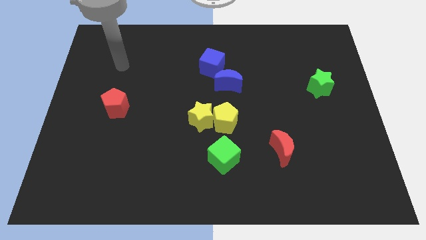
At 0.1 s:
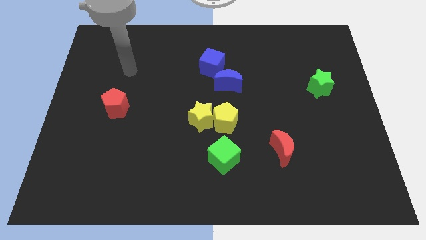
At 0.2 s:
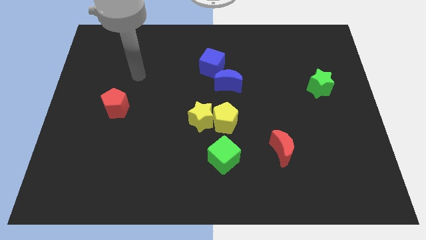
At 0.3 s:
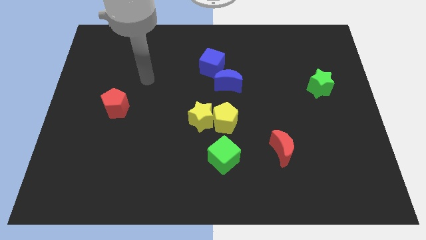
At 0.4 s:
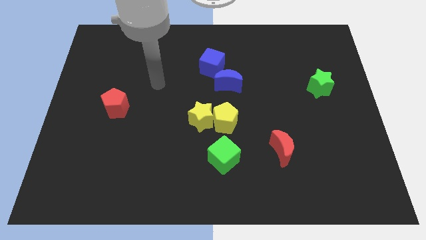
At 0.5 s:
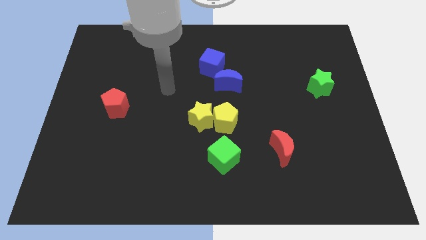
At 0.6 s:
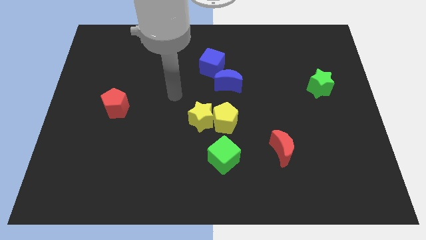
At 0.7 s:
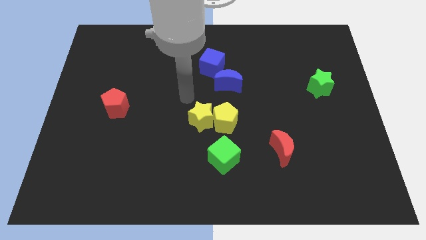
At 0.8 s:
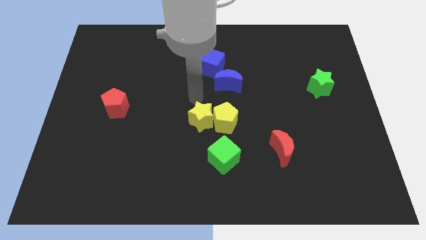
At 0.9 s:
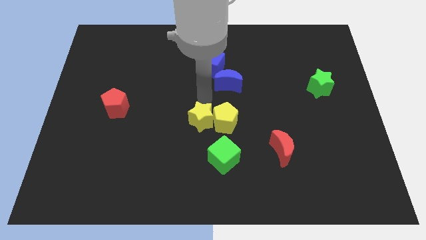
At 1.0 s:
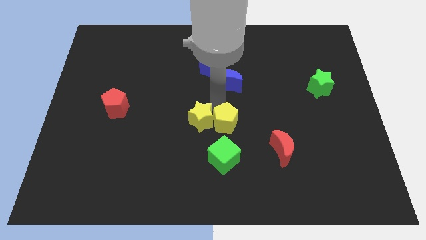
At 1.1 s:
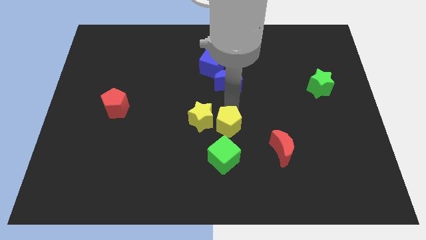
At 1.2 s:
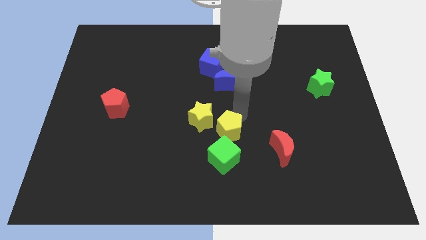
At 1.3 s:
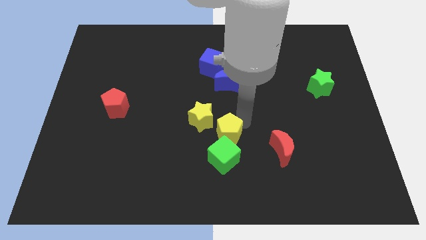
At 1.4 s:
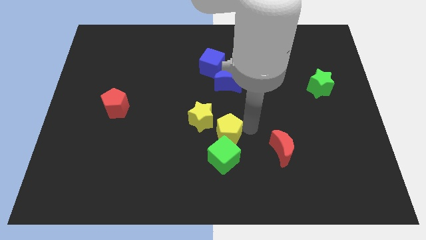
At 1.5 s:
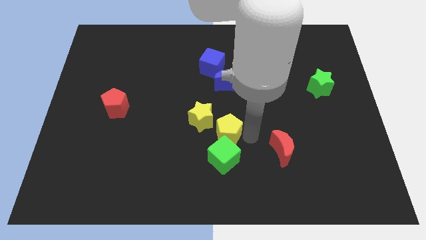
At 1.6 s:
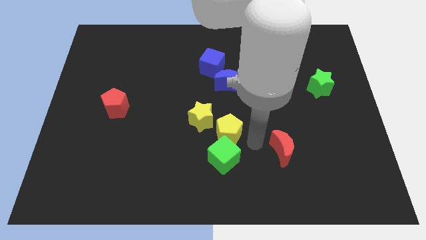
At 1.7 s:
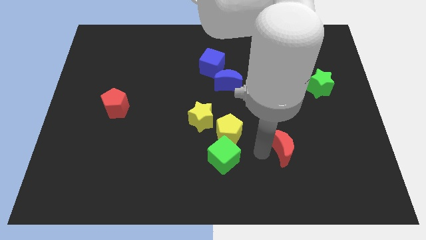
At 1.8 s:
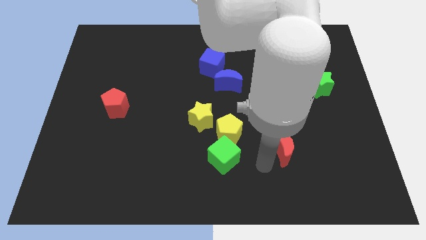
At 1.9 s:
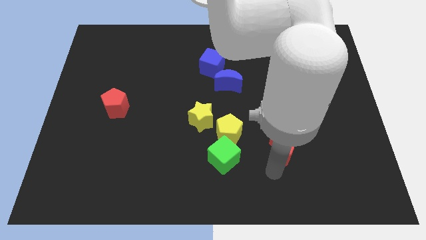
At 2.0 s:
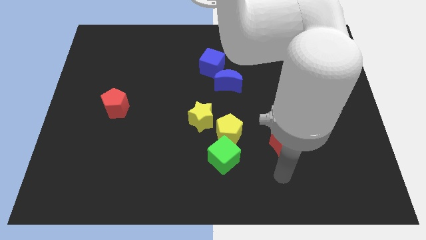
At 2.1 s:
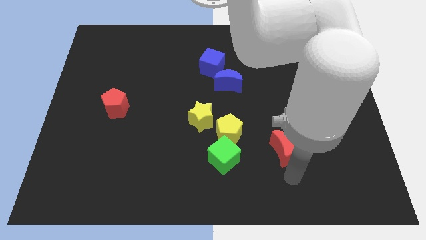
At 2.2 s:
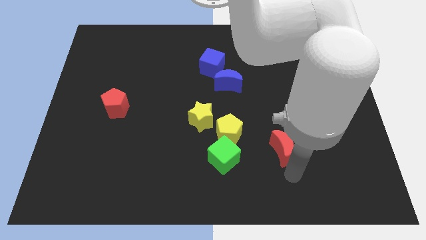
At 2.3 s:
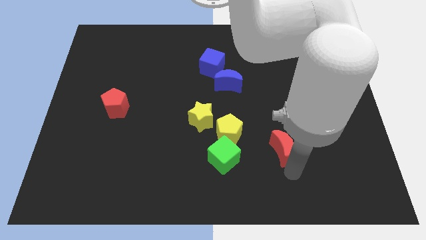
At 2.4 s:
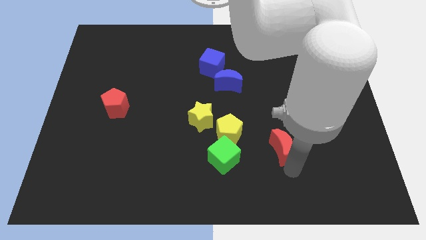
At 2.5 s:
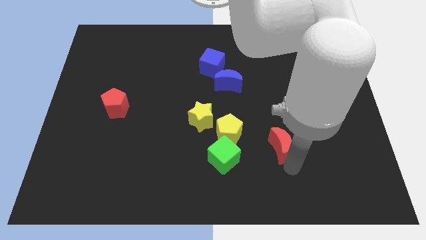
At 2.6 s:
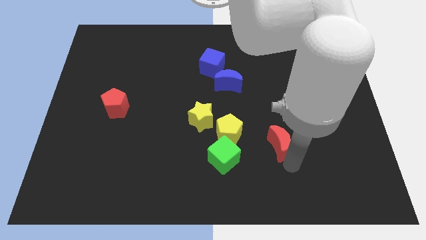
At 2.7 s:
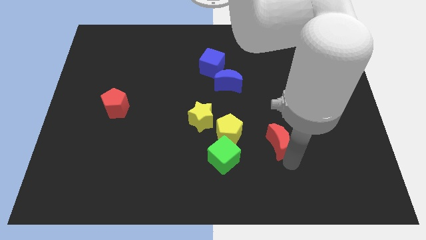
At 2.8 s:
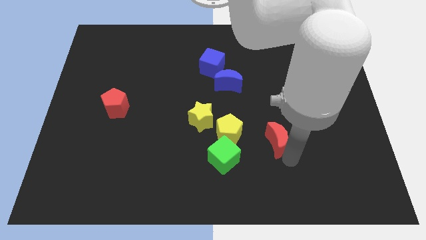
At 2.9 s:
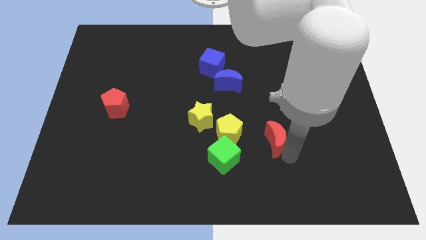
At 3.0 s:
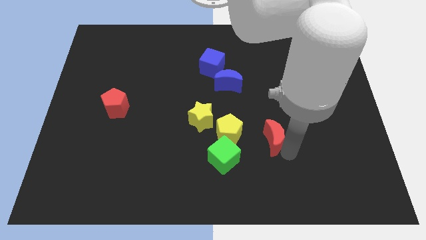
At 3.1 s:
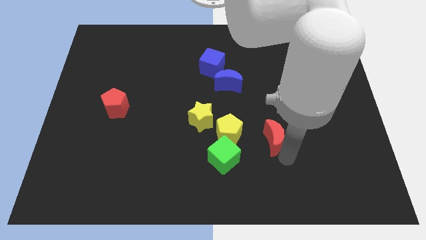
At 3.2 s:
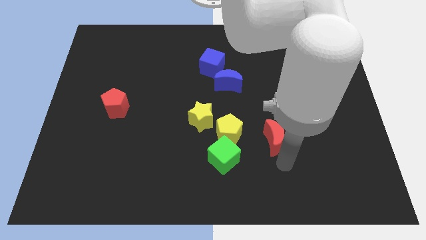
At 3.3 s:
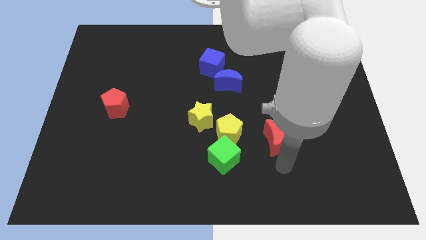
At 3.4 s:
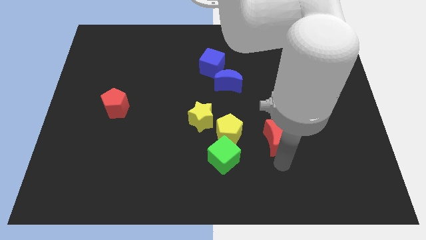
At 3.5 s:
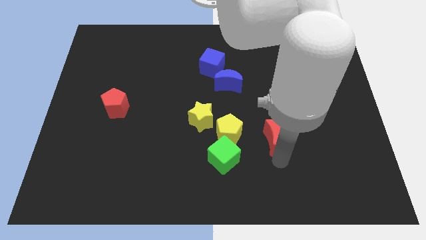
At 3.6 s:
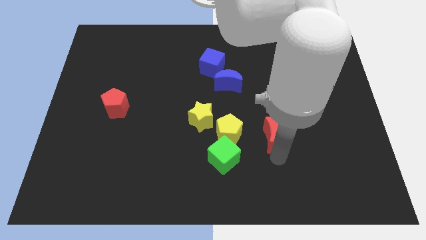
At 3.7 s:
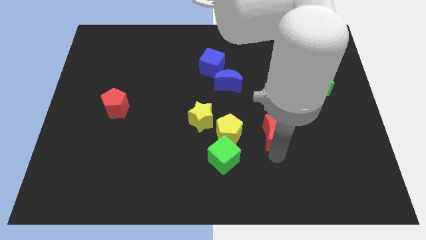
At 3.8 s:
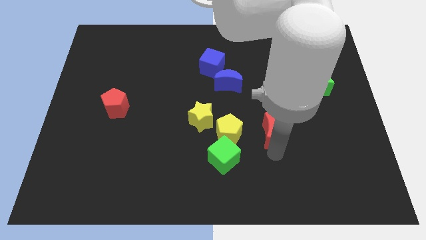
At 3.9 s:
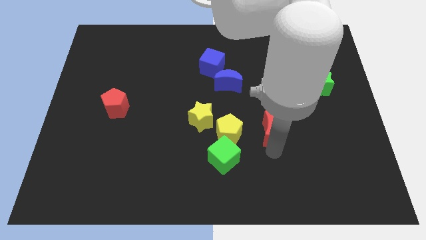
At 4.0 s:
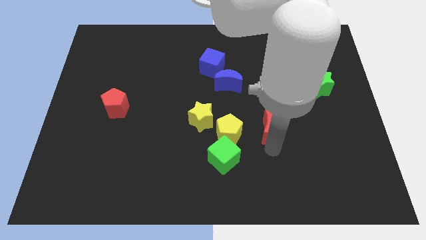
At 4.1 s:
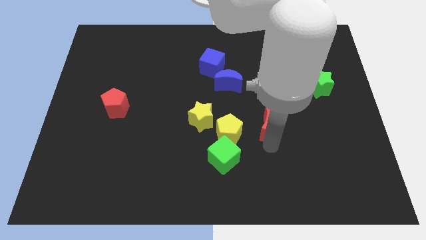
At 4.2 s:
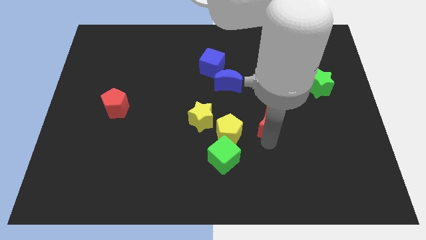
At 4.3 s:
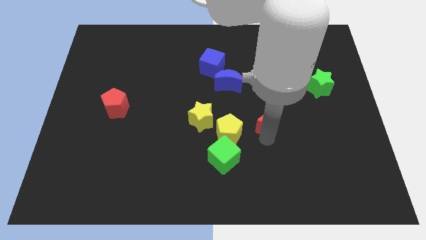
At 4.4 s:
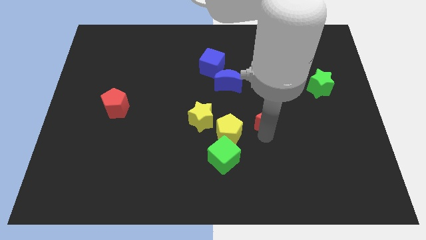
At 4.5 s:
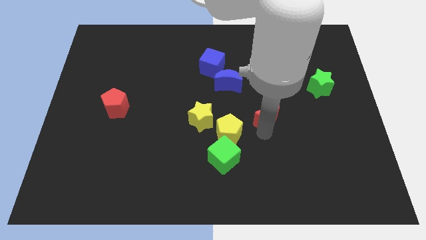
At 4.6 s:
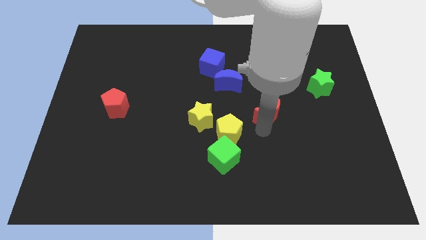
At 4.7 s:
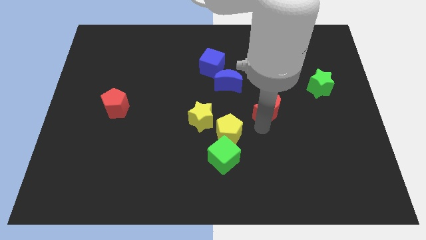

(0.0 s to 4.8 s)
slide the red moon to the bottom right of the blue moon

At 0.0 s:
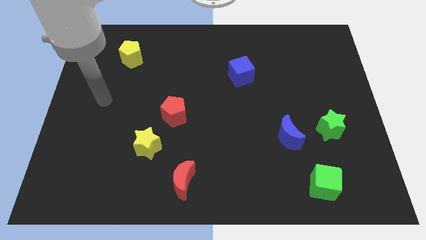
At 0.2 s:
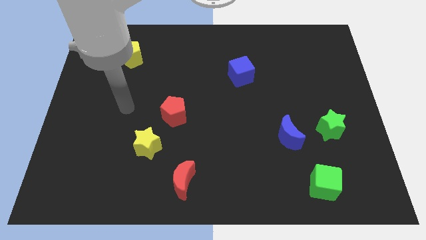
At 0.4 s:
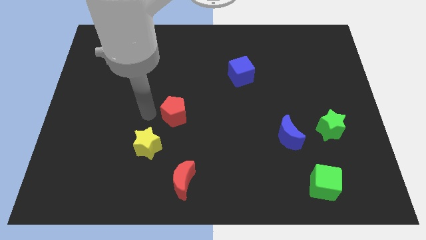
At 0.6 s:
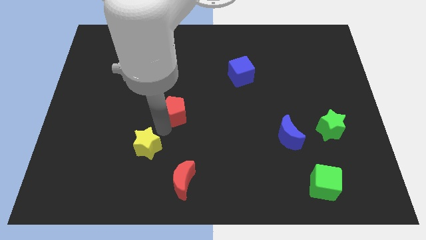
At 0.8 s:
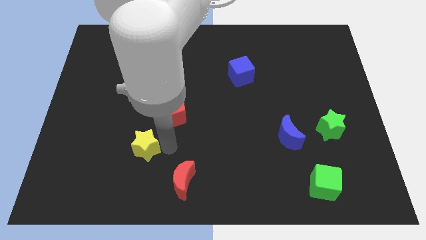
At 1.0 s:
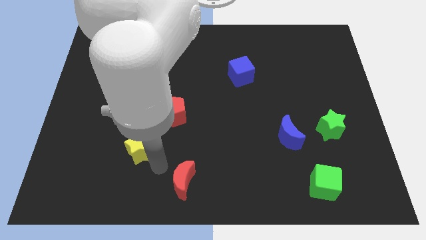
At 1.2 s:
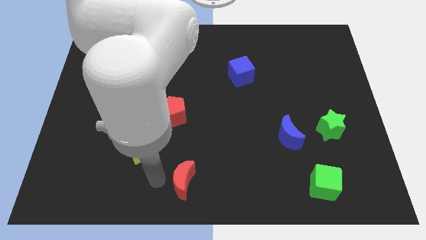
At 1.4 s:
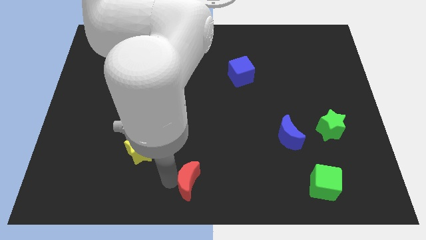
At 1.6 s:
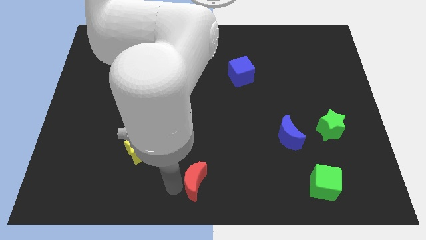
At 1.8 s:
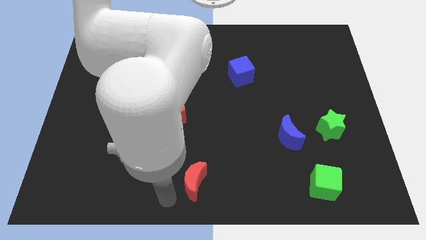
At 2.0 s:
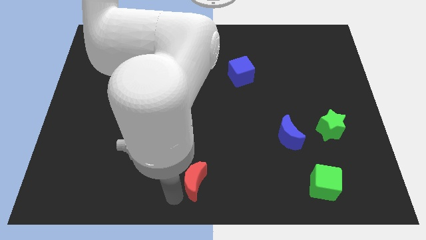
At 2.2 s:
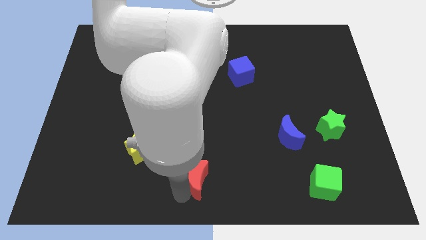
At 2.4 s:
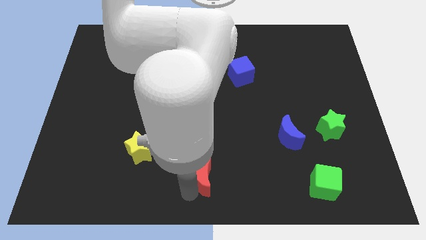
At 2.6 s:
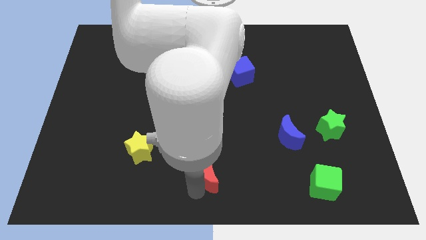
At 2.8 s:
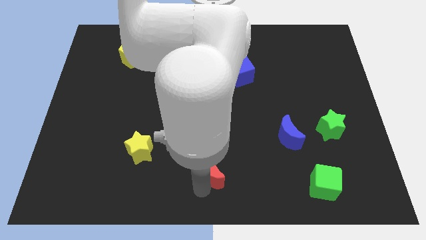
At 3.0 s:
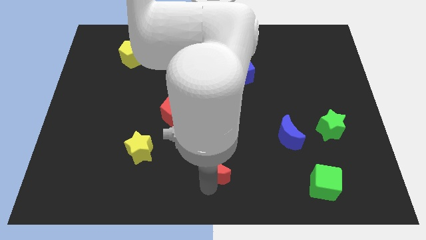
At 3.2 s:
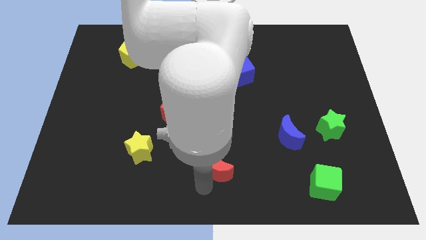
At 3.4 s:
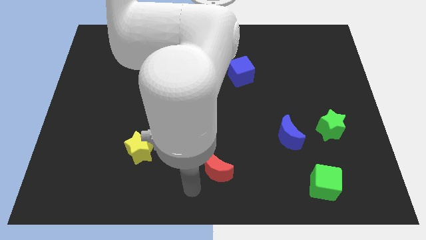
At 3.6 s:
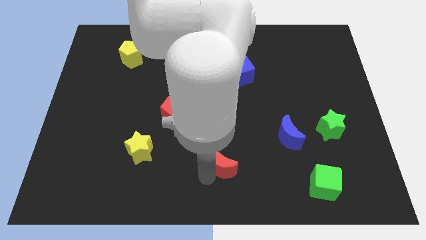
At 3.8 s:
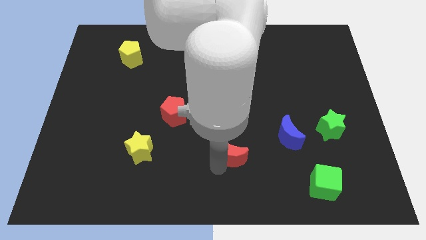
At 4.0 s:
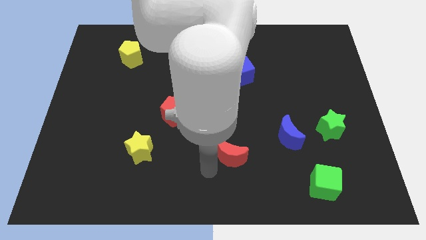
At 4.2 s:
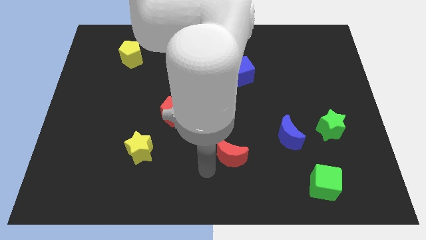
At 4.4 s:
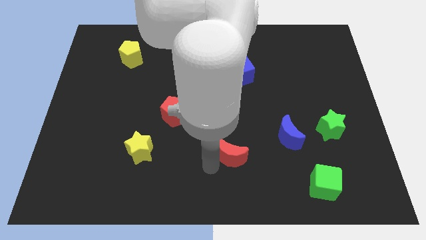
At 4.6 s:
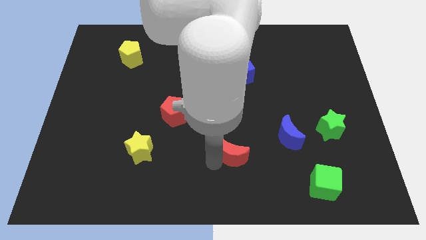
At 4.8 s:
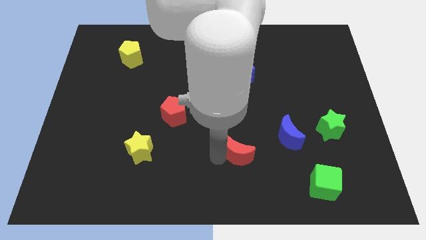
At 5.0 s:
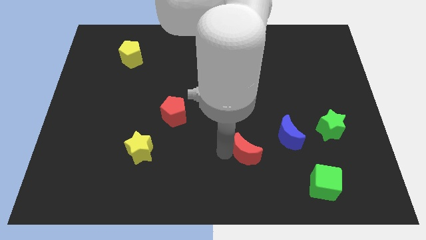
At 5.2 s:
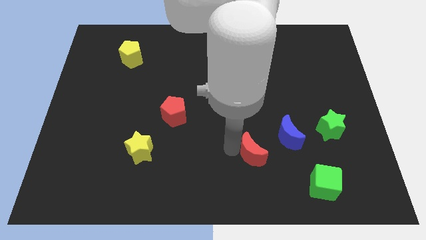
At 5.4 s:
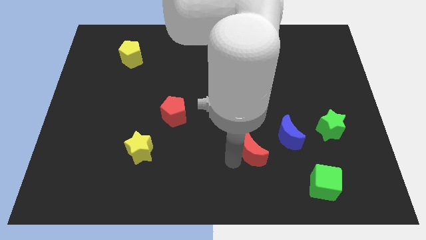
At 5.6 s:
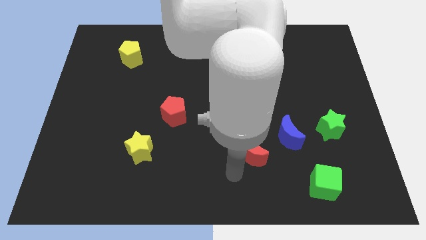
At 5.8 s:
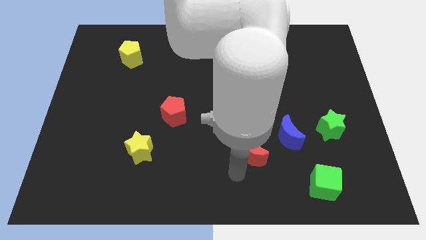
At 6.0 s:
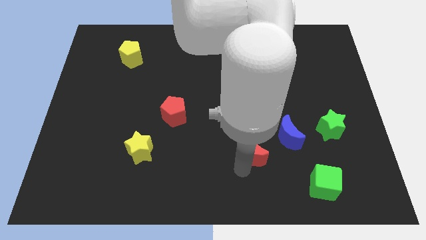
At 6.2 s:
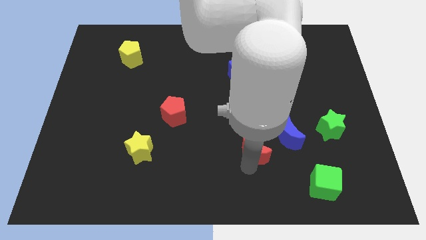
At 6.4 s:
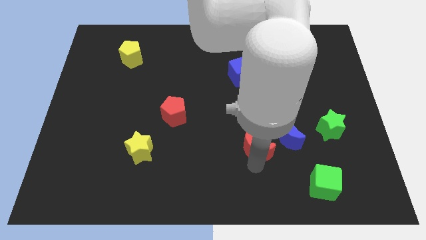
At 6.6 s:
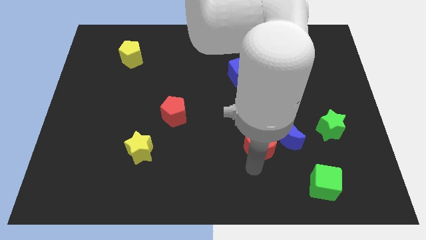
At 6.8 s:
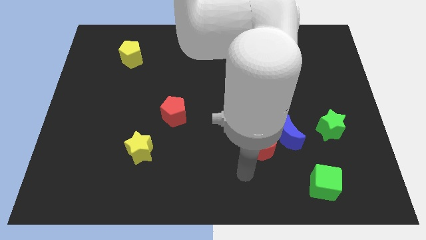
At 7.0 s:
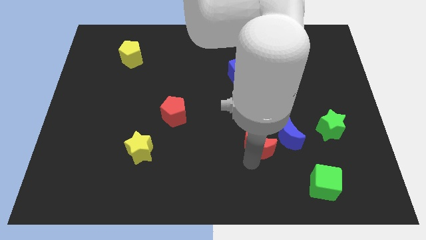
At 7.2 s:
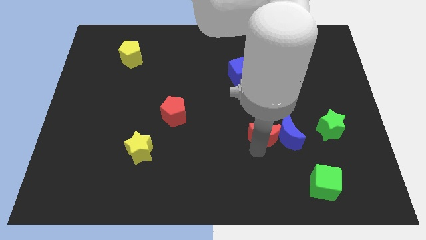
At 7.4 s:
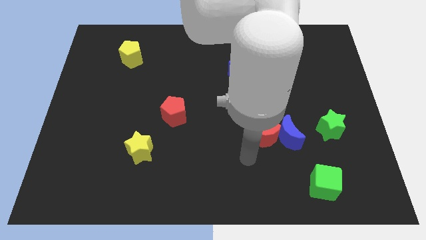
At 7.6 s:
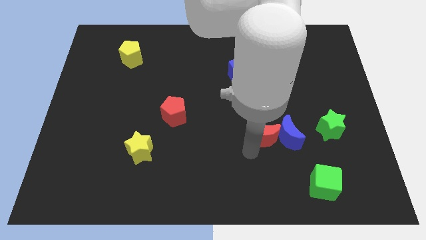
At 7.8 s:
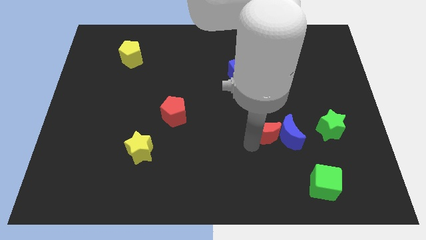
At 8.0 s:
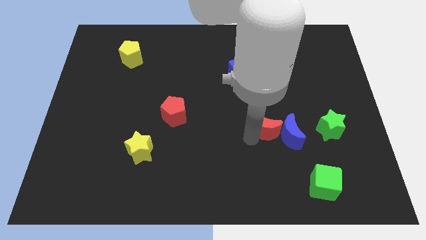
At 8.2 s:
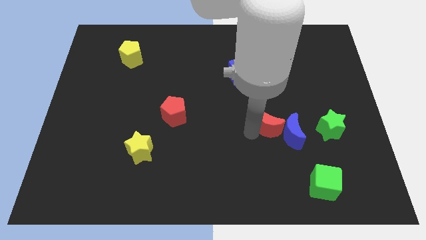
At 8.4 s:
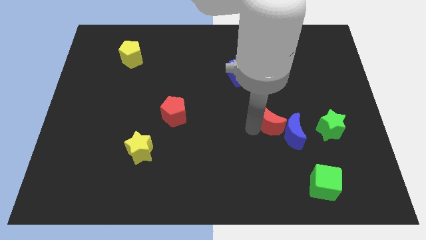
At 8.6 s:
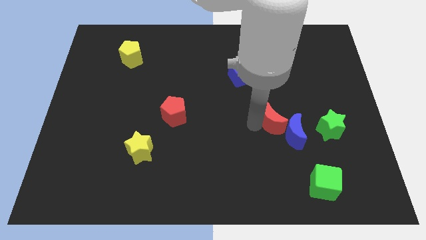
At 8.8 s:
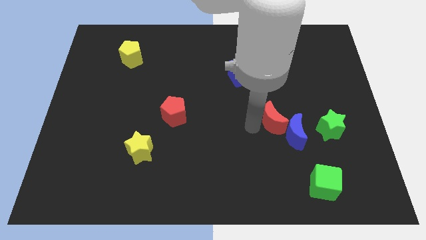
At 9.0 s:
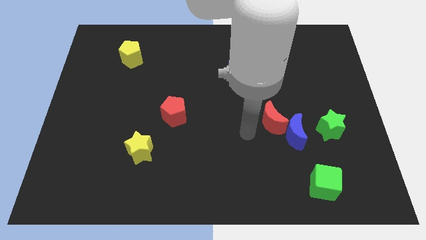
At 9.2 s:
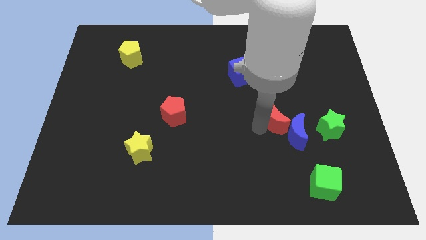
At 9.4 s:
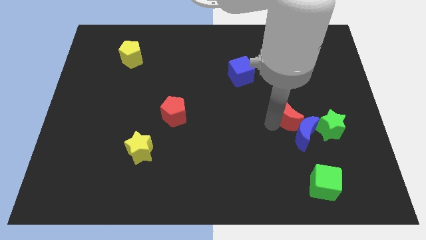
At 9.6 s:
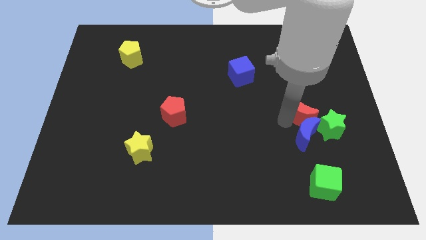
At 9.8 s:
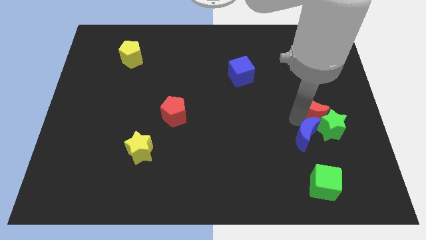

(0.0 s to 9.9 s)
move the red moon above the green star
